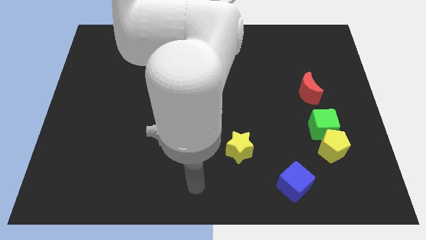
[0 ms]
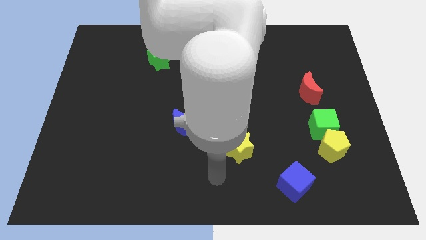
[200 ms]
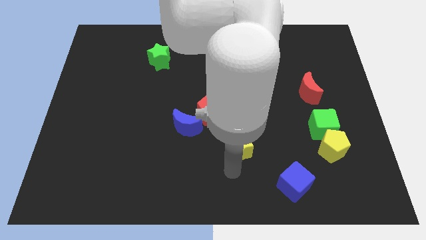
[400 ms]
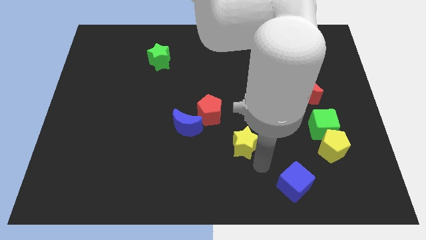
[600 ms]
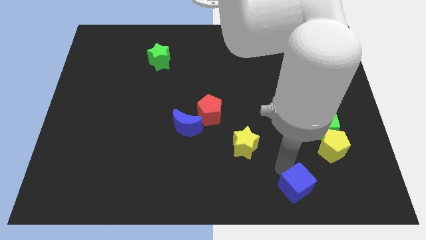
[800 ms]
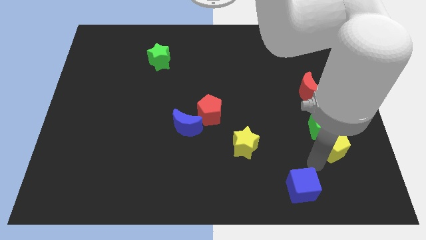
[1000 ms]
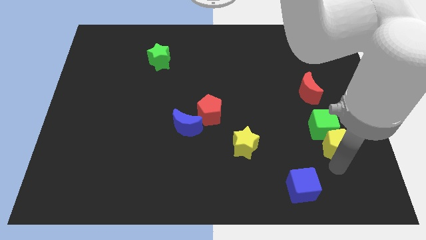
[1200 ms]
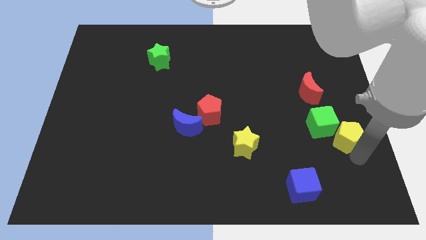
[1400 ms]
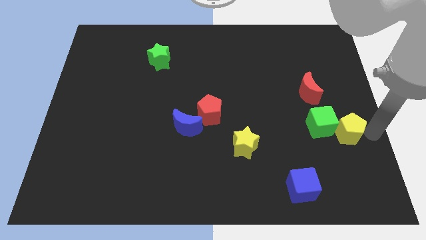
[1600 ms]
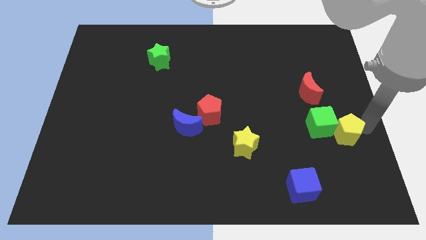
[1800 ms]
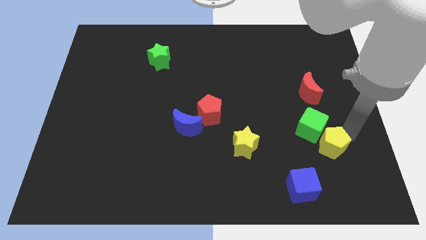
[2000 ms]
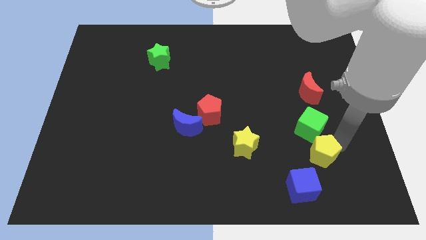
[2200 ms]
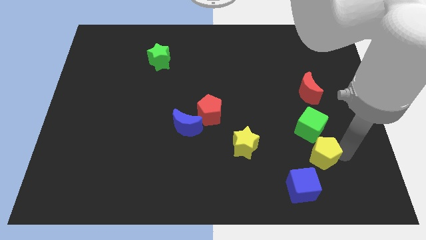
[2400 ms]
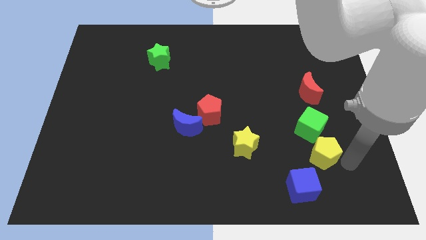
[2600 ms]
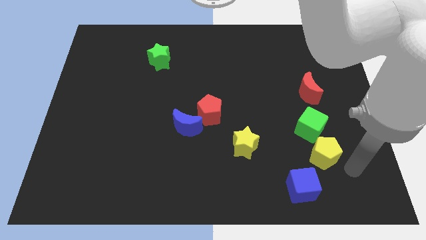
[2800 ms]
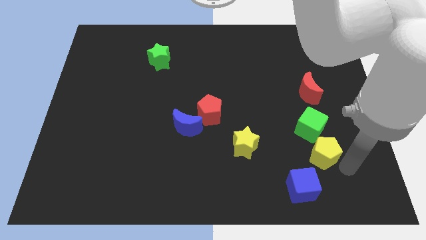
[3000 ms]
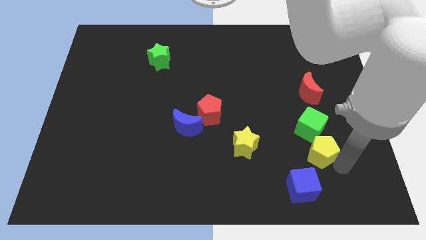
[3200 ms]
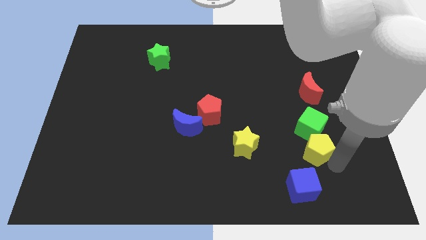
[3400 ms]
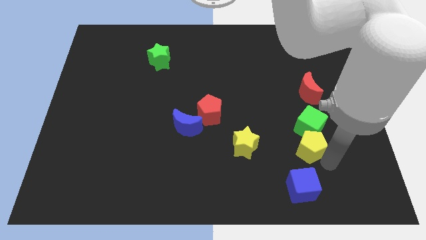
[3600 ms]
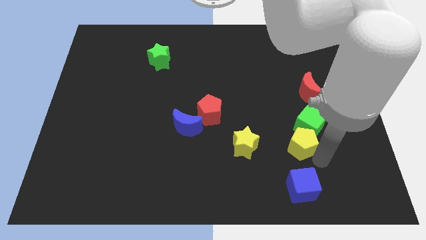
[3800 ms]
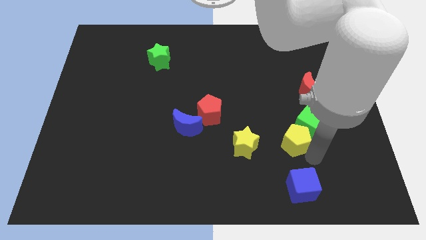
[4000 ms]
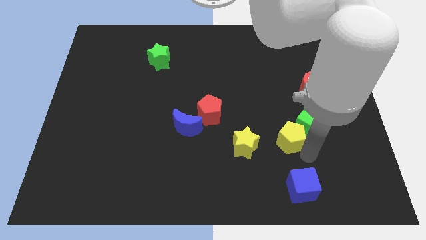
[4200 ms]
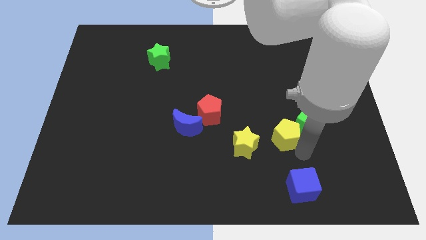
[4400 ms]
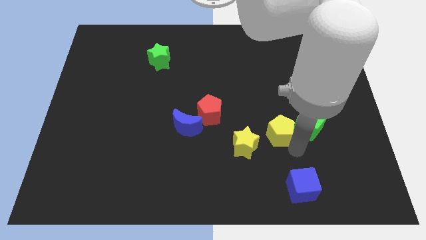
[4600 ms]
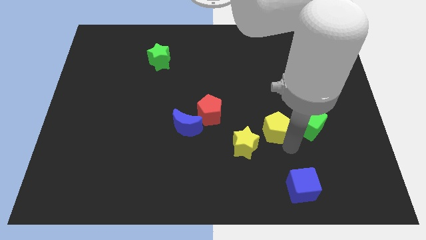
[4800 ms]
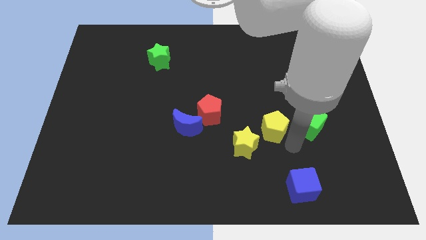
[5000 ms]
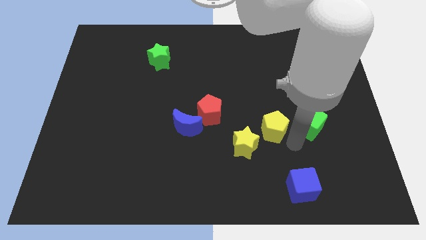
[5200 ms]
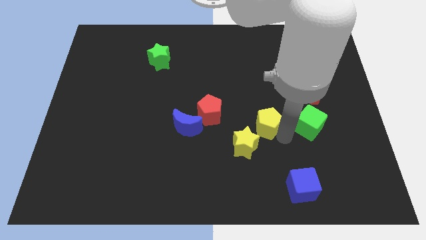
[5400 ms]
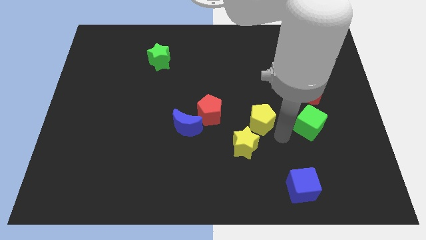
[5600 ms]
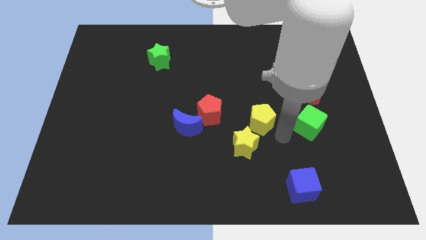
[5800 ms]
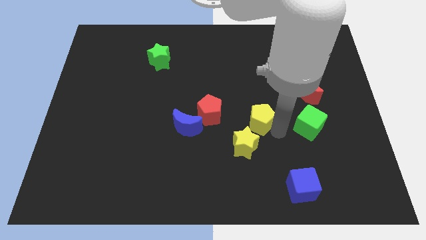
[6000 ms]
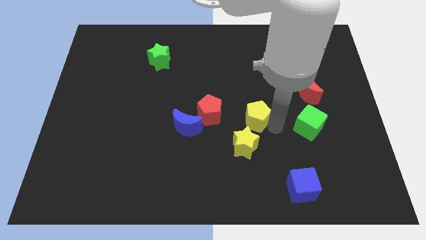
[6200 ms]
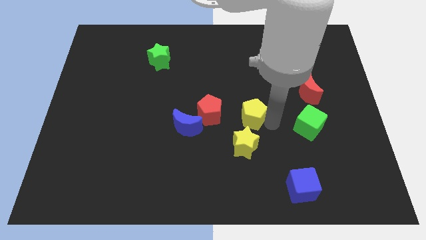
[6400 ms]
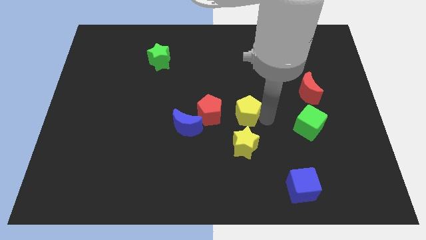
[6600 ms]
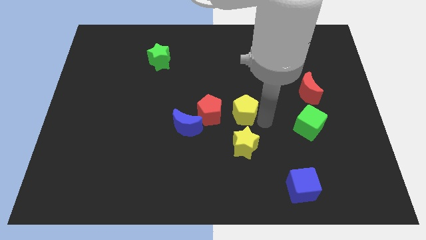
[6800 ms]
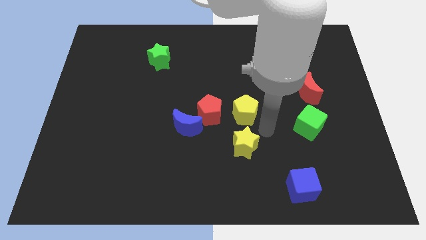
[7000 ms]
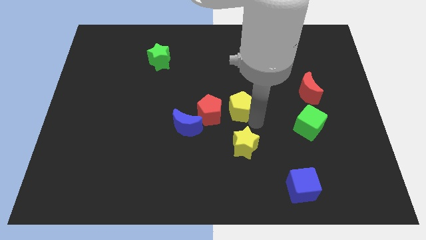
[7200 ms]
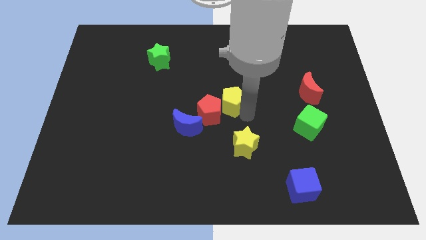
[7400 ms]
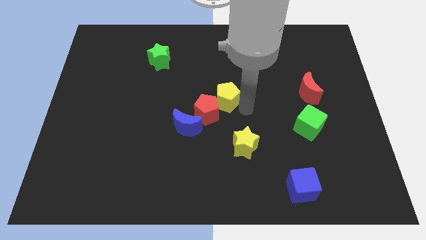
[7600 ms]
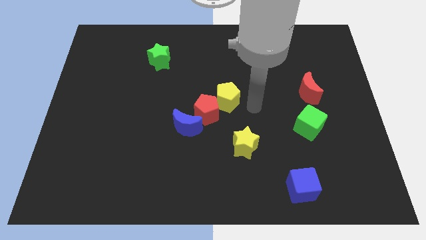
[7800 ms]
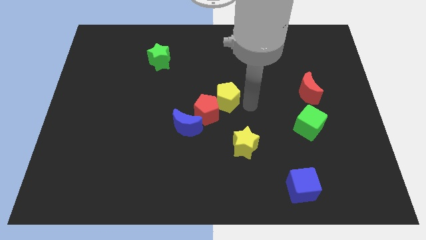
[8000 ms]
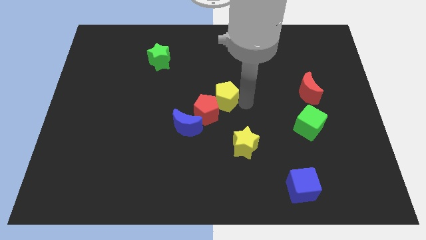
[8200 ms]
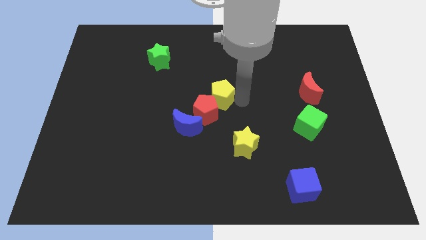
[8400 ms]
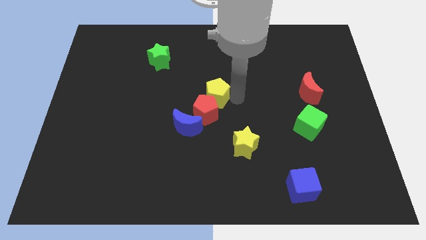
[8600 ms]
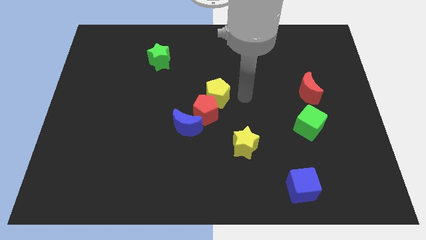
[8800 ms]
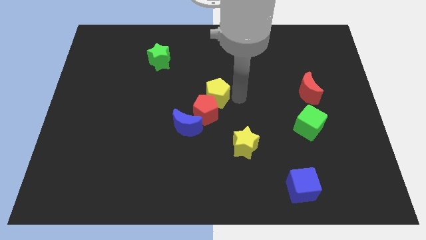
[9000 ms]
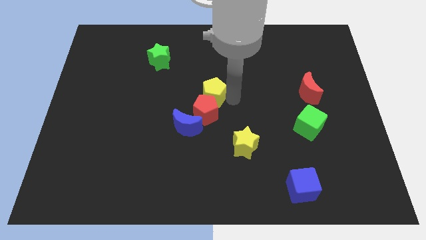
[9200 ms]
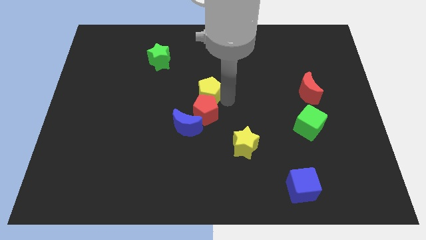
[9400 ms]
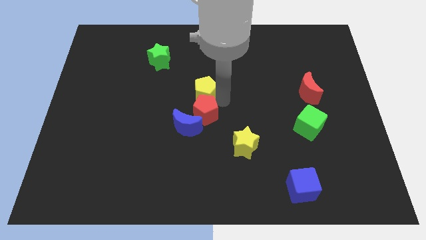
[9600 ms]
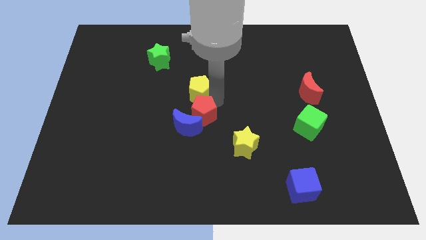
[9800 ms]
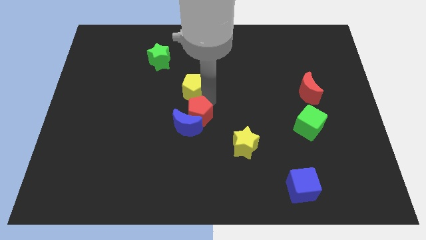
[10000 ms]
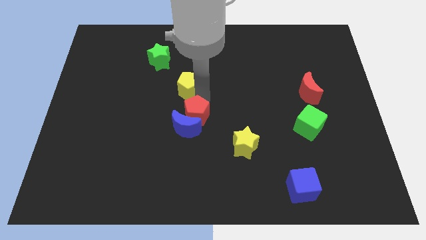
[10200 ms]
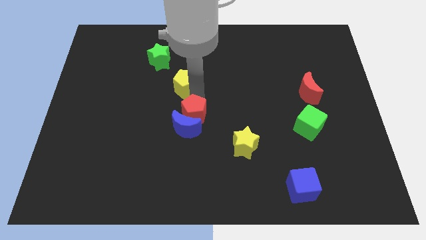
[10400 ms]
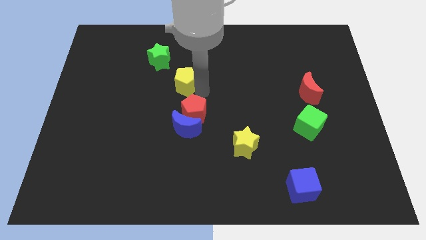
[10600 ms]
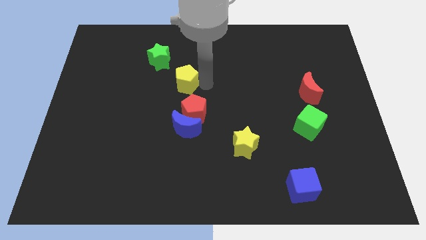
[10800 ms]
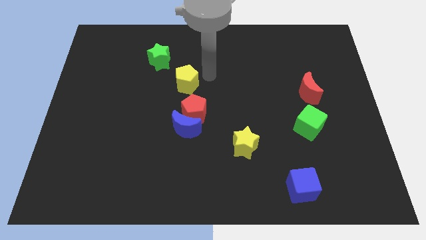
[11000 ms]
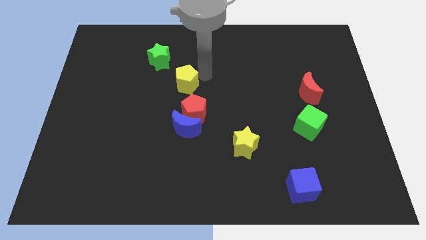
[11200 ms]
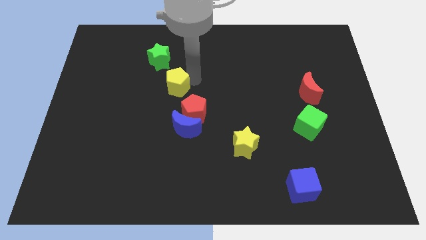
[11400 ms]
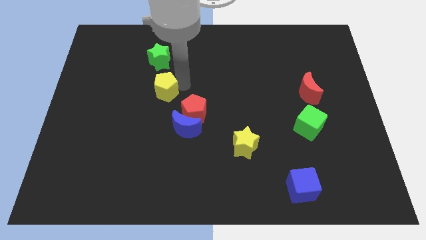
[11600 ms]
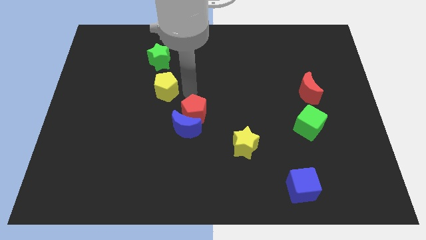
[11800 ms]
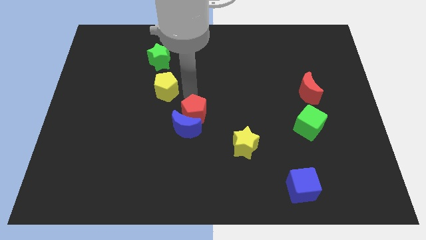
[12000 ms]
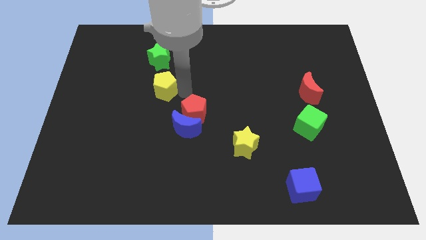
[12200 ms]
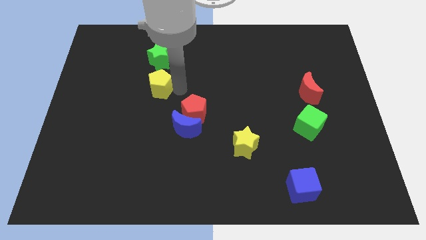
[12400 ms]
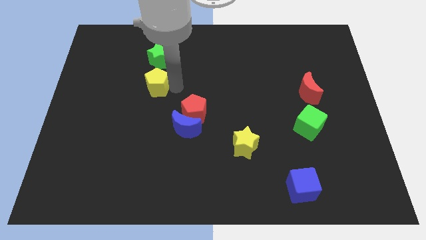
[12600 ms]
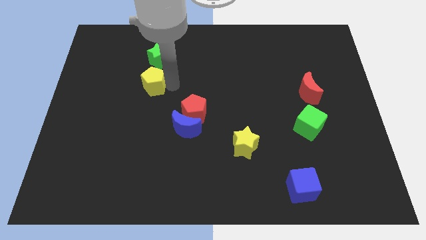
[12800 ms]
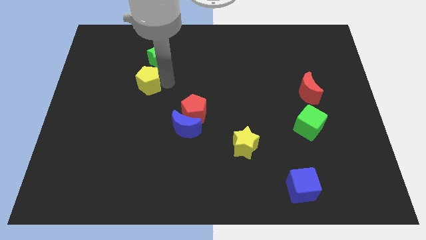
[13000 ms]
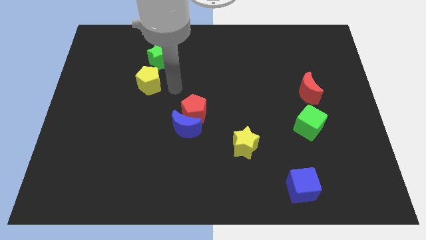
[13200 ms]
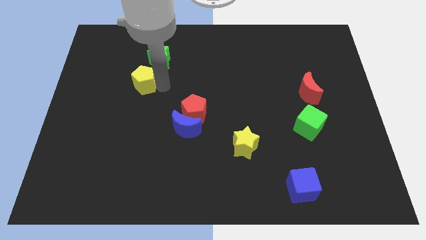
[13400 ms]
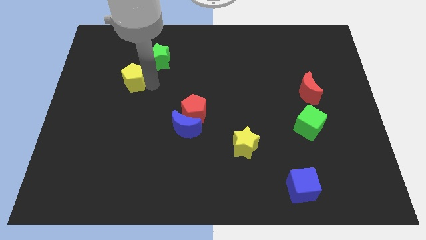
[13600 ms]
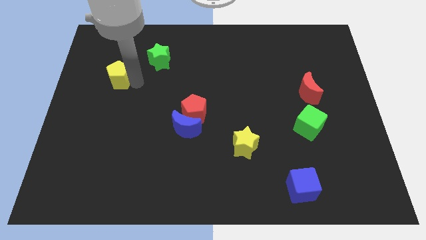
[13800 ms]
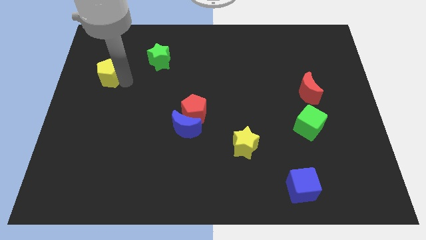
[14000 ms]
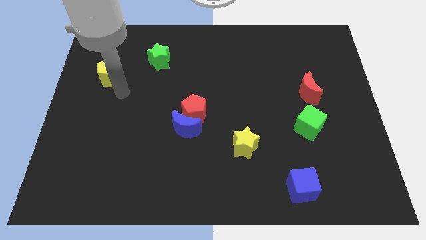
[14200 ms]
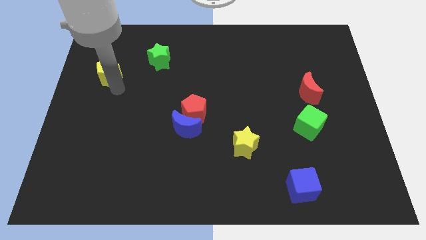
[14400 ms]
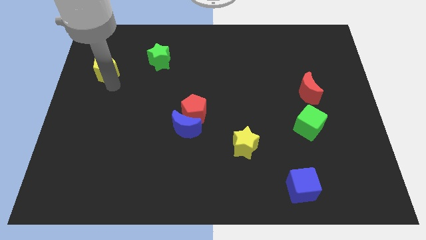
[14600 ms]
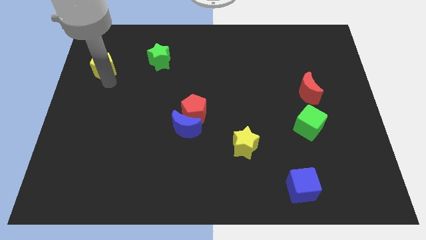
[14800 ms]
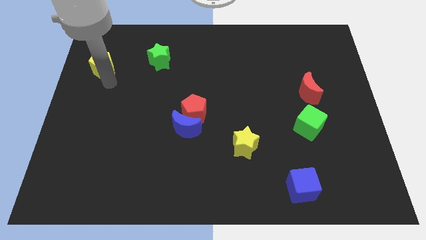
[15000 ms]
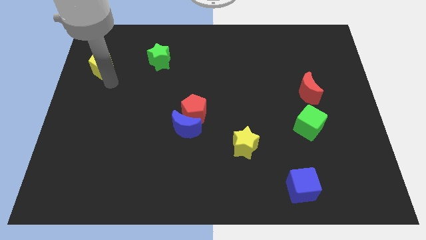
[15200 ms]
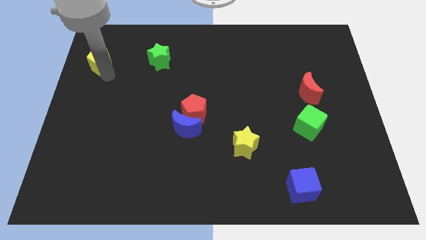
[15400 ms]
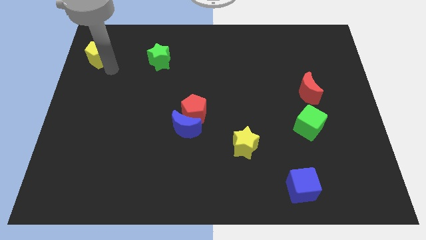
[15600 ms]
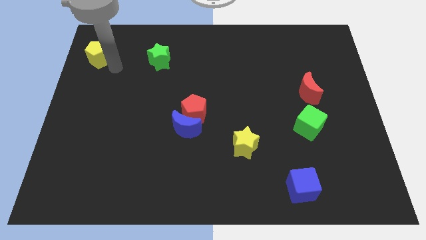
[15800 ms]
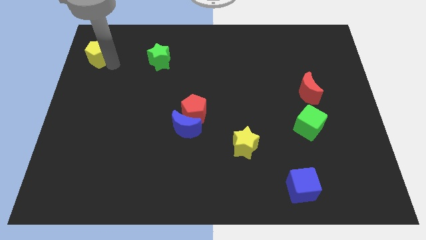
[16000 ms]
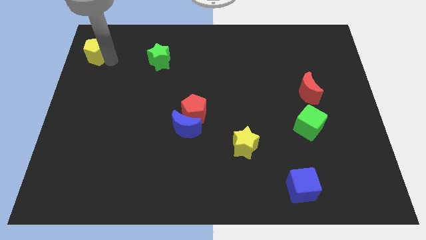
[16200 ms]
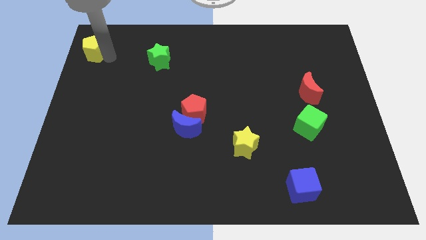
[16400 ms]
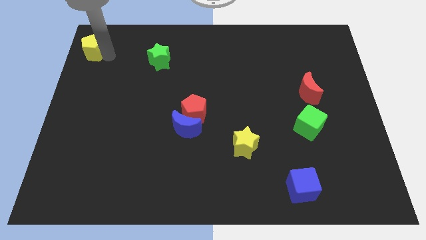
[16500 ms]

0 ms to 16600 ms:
push the yellow pentagon to the upper left corner
